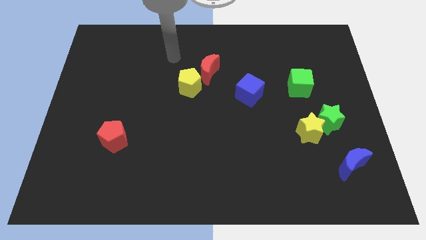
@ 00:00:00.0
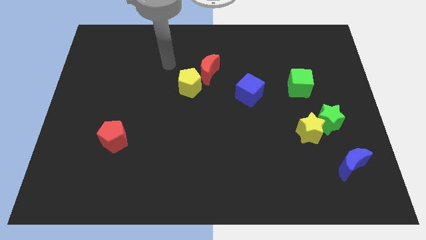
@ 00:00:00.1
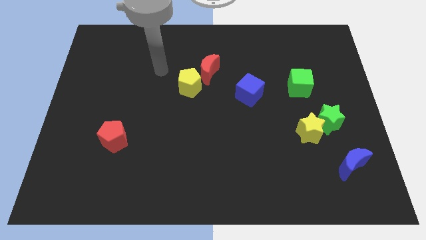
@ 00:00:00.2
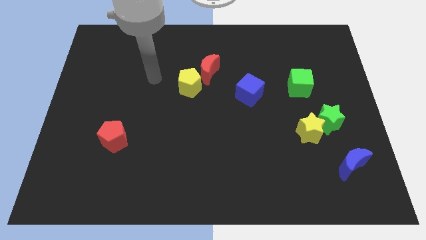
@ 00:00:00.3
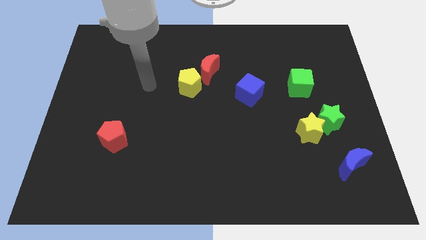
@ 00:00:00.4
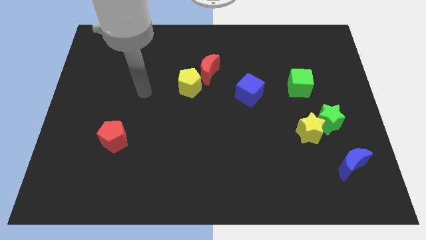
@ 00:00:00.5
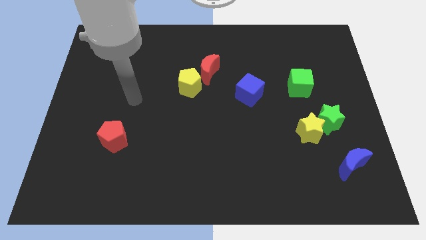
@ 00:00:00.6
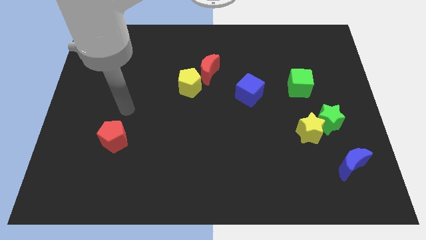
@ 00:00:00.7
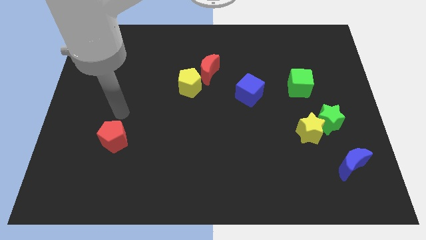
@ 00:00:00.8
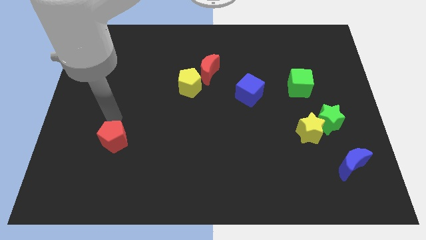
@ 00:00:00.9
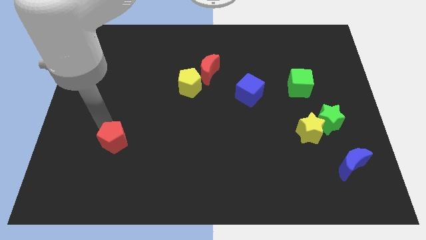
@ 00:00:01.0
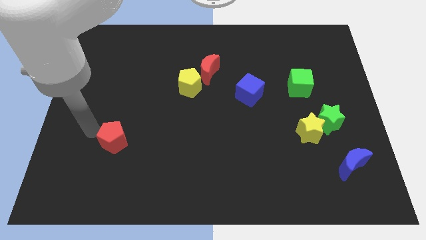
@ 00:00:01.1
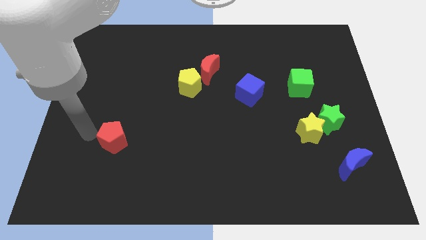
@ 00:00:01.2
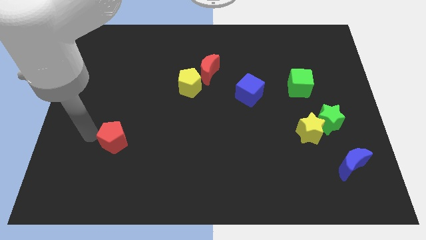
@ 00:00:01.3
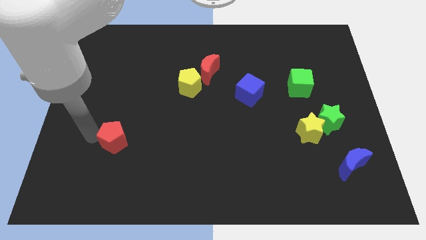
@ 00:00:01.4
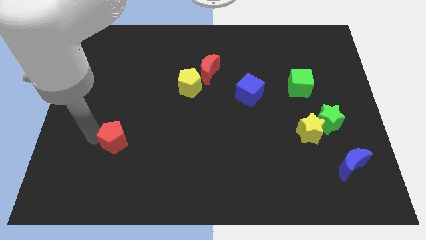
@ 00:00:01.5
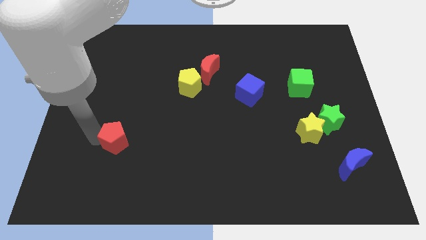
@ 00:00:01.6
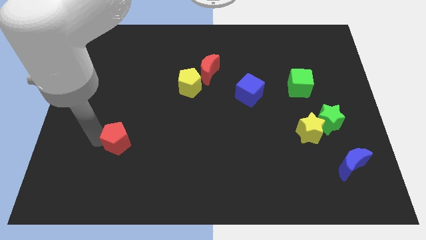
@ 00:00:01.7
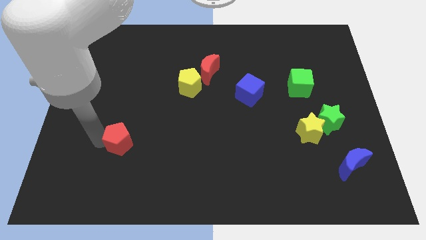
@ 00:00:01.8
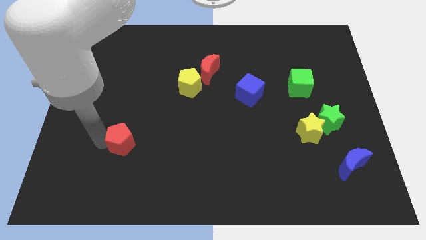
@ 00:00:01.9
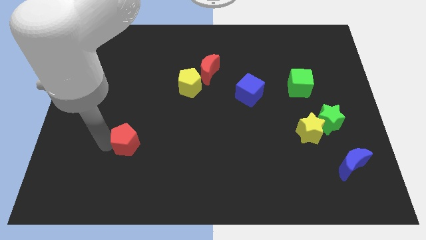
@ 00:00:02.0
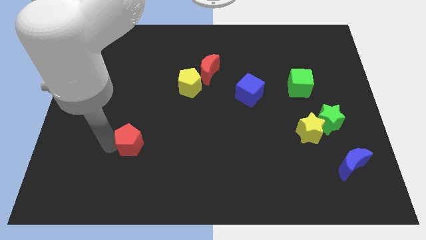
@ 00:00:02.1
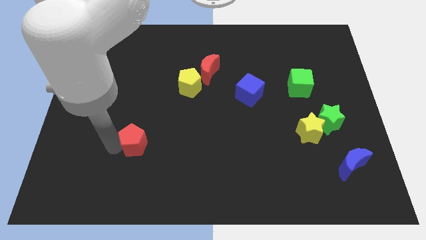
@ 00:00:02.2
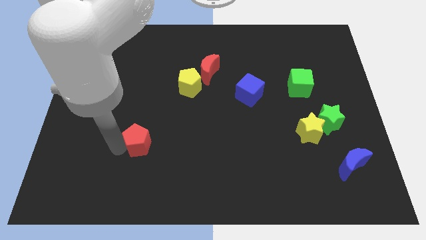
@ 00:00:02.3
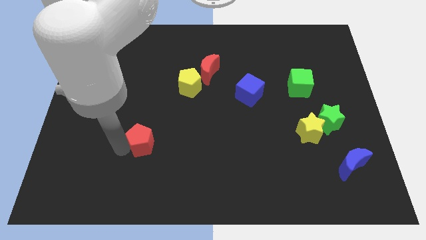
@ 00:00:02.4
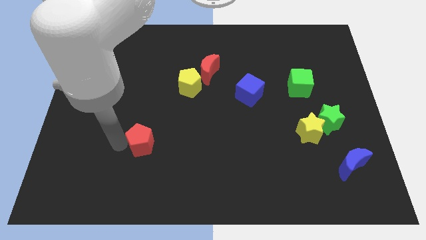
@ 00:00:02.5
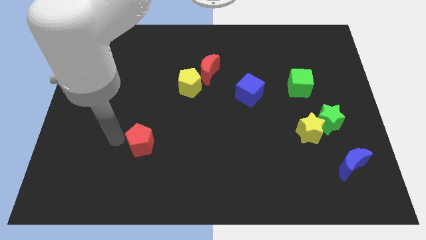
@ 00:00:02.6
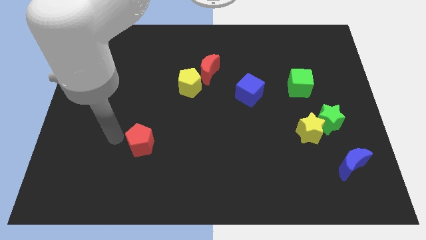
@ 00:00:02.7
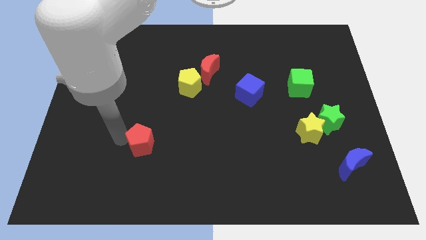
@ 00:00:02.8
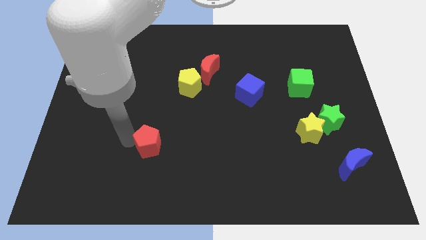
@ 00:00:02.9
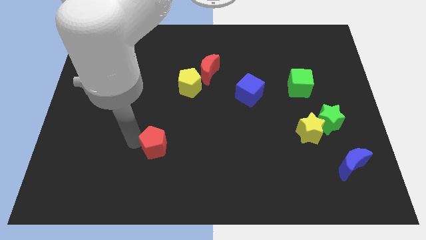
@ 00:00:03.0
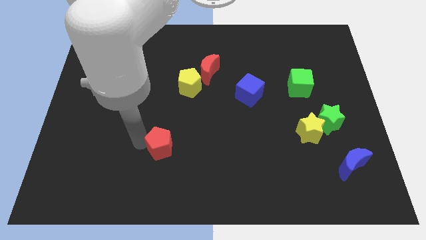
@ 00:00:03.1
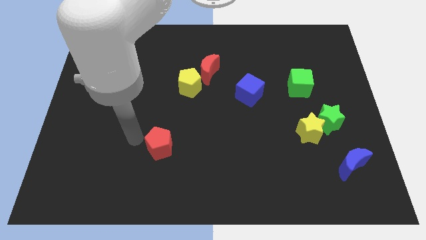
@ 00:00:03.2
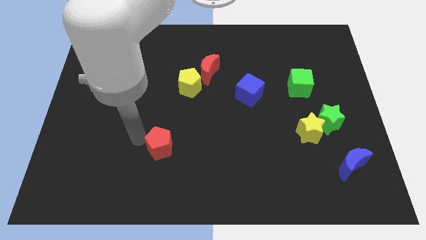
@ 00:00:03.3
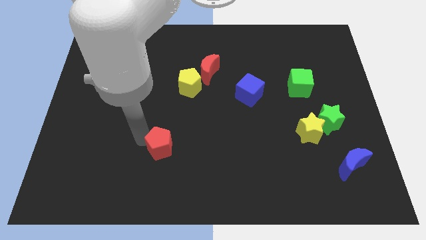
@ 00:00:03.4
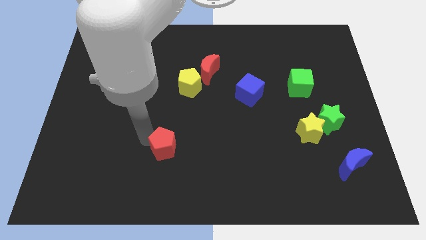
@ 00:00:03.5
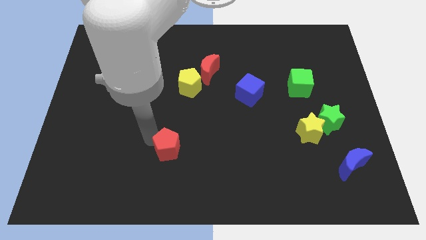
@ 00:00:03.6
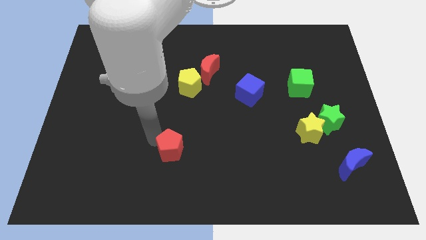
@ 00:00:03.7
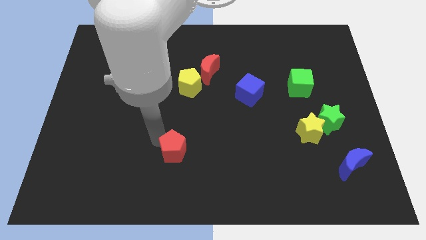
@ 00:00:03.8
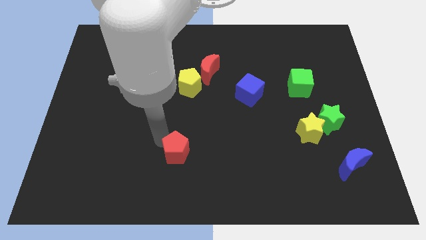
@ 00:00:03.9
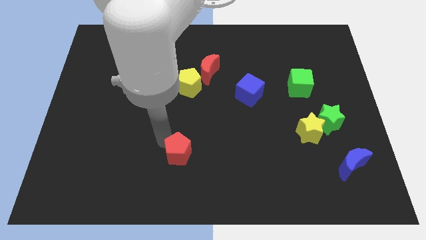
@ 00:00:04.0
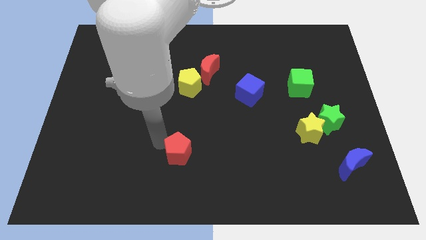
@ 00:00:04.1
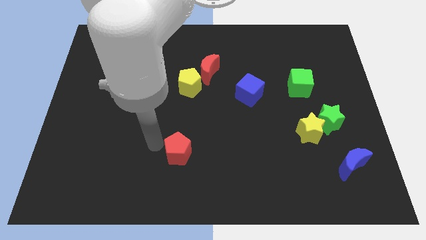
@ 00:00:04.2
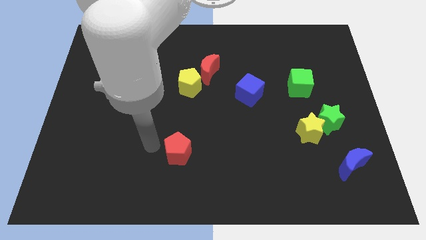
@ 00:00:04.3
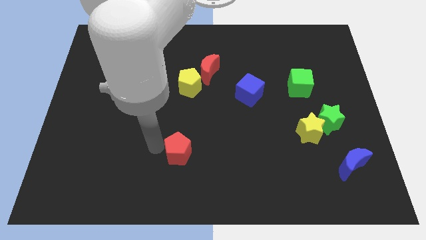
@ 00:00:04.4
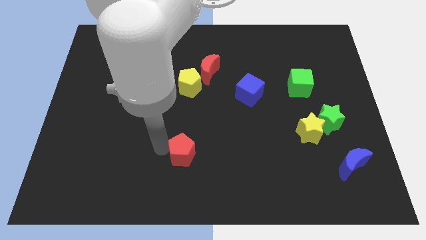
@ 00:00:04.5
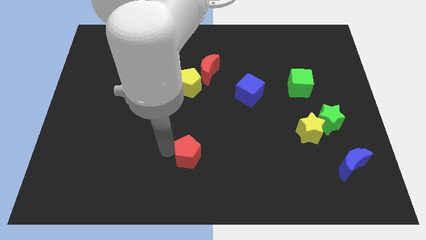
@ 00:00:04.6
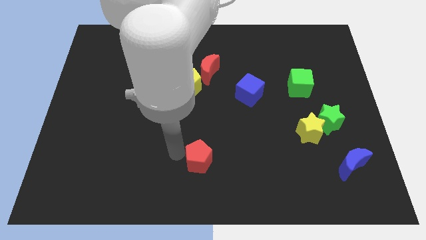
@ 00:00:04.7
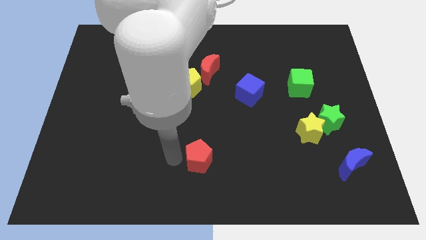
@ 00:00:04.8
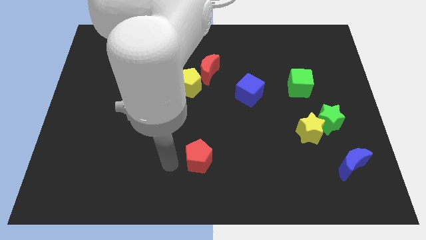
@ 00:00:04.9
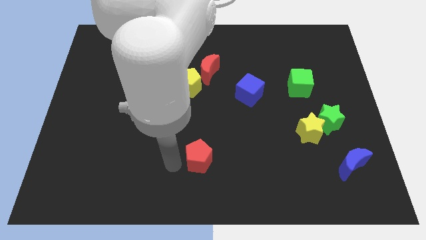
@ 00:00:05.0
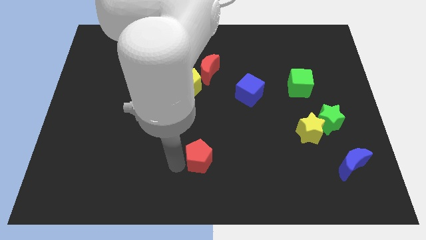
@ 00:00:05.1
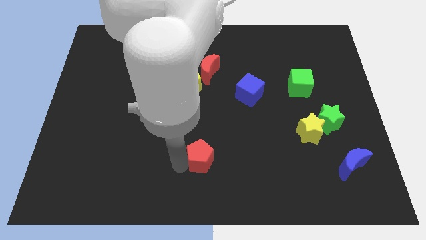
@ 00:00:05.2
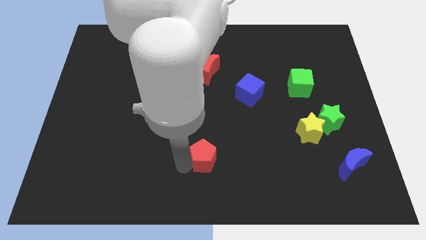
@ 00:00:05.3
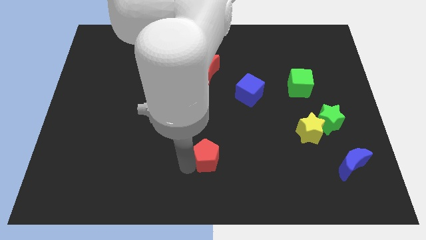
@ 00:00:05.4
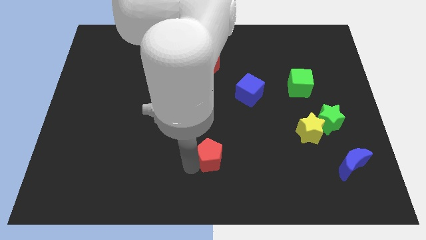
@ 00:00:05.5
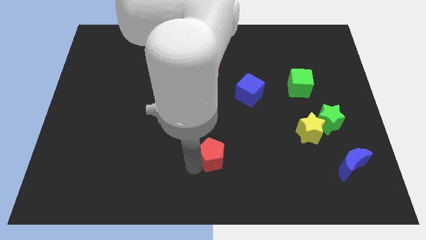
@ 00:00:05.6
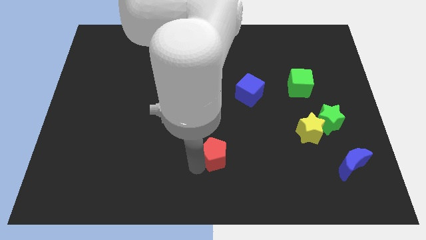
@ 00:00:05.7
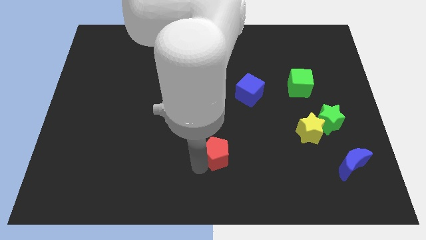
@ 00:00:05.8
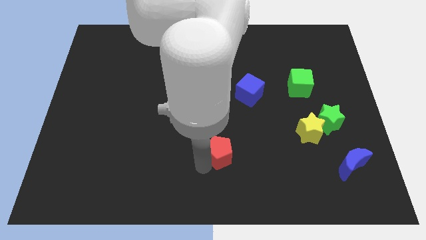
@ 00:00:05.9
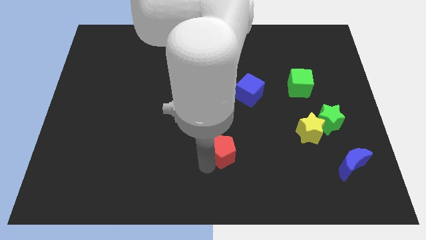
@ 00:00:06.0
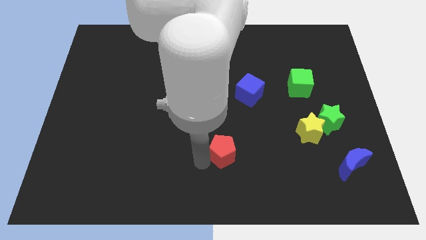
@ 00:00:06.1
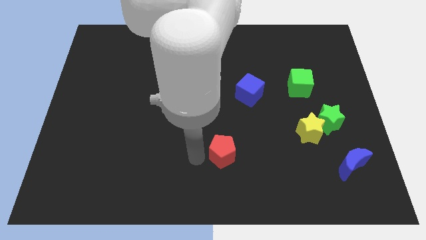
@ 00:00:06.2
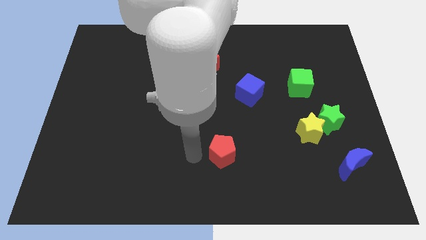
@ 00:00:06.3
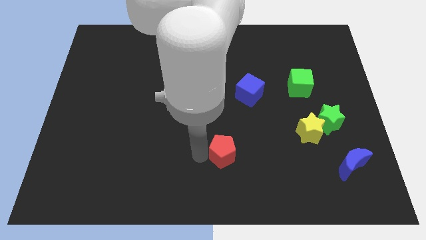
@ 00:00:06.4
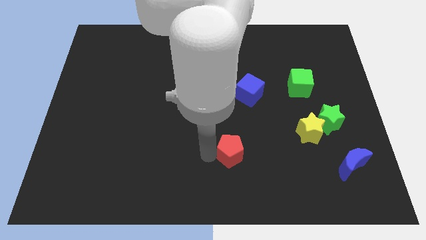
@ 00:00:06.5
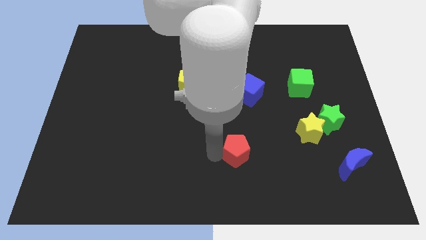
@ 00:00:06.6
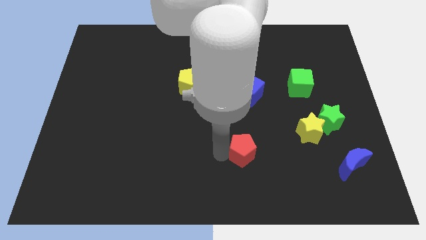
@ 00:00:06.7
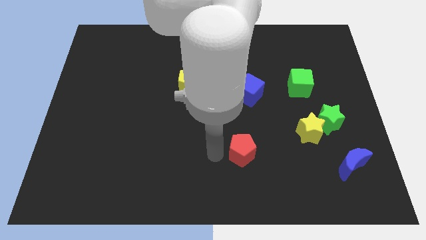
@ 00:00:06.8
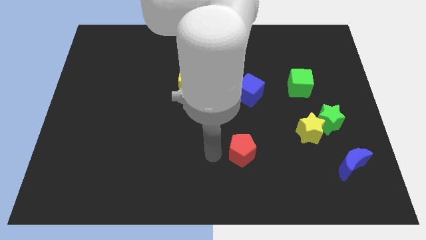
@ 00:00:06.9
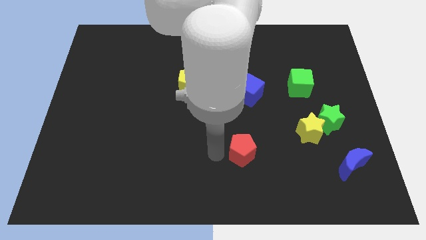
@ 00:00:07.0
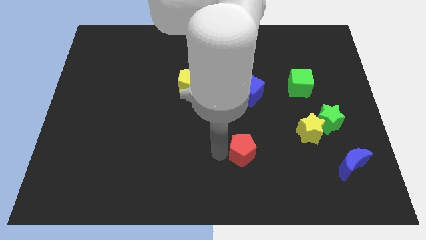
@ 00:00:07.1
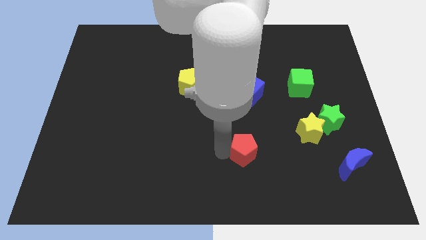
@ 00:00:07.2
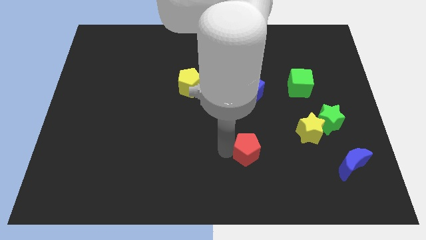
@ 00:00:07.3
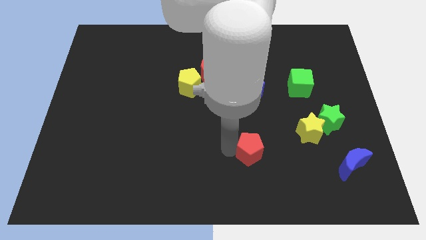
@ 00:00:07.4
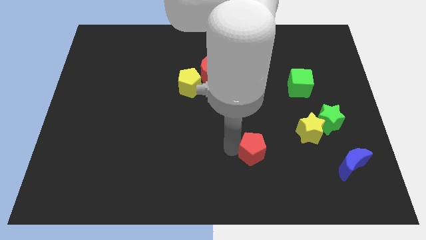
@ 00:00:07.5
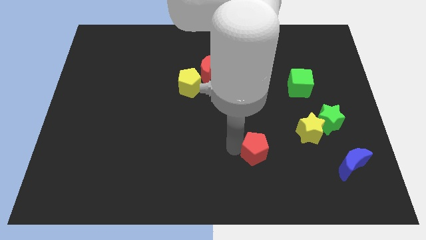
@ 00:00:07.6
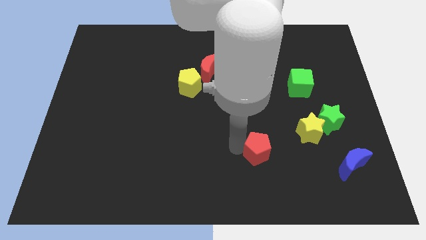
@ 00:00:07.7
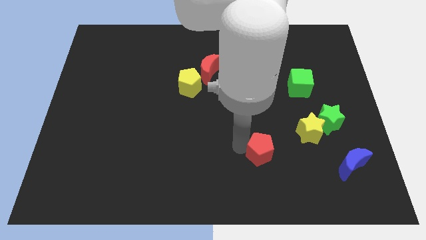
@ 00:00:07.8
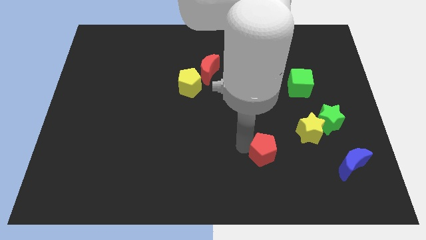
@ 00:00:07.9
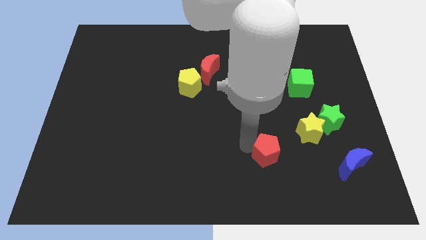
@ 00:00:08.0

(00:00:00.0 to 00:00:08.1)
move the red pentagon diagonally down and to the left of the yellow star
